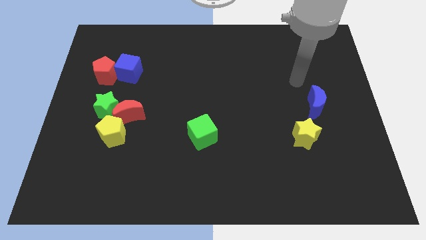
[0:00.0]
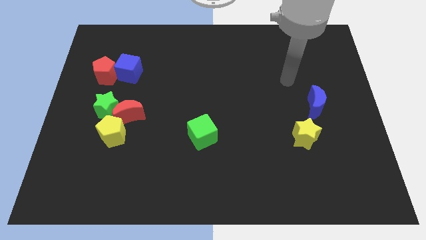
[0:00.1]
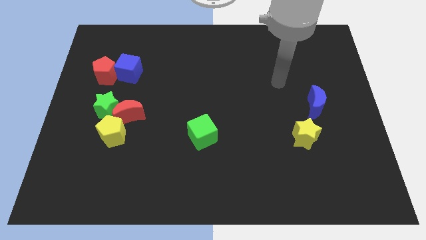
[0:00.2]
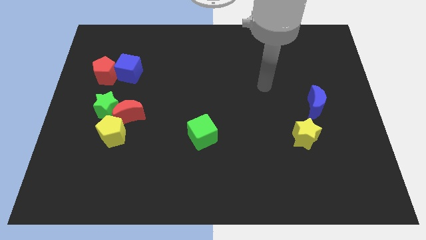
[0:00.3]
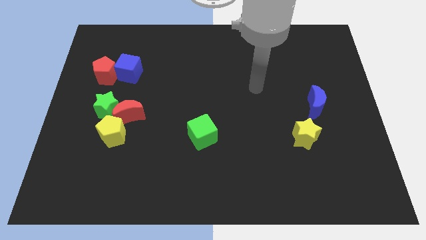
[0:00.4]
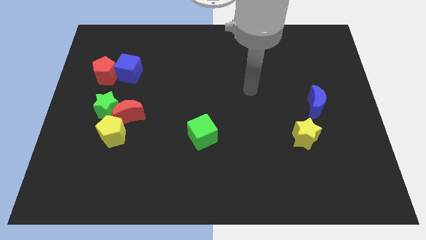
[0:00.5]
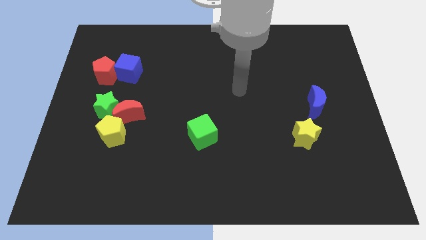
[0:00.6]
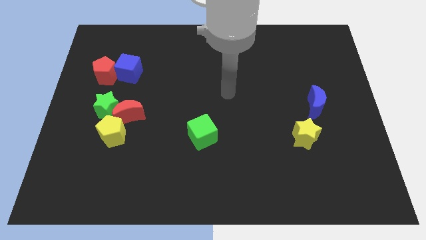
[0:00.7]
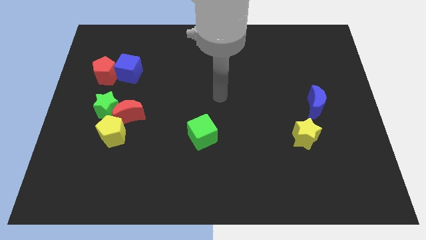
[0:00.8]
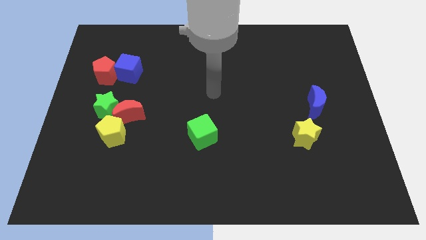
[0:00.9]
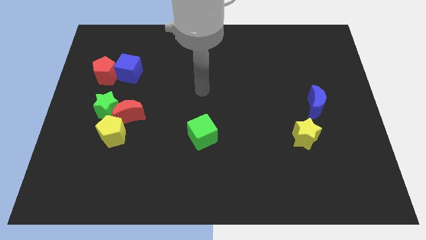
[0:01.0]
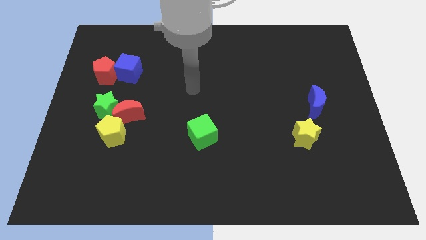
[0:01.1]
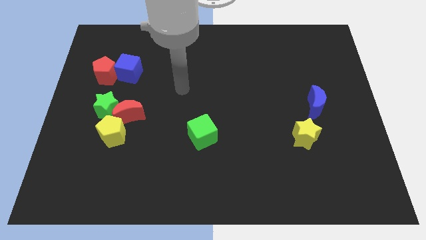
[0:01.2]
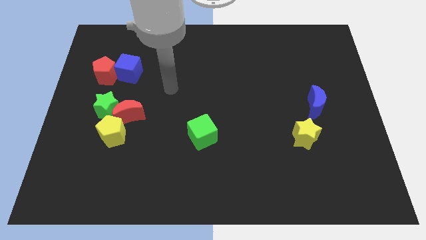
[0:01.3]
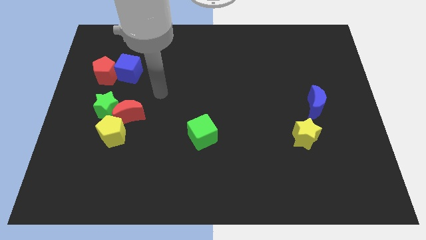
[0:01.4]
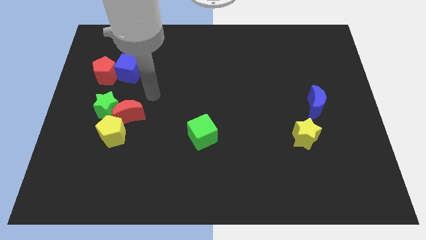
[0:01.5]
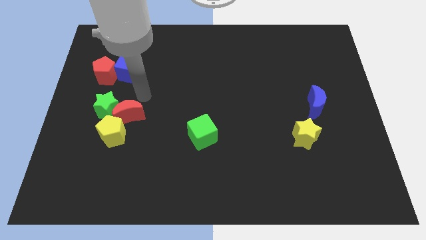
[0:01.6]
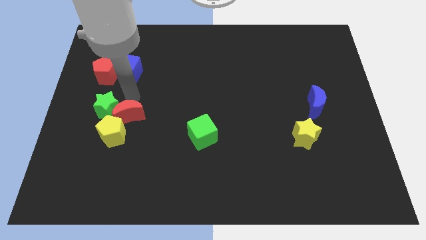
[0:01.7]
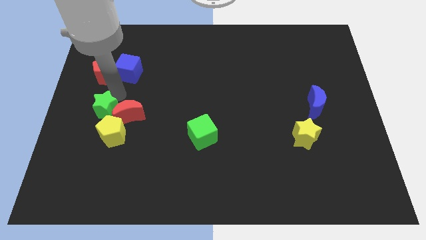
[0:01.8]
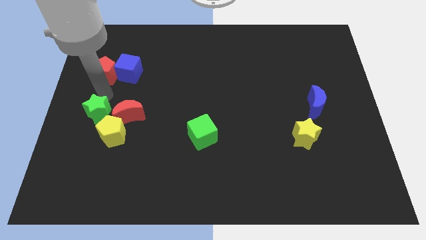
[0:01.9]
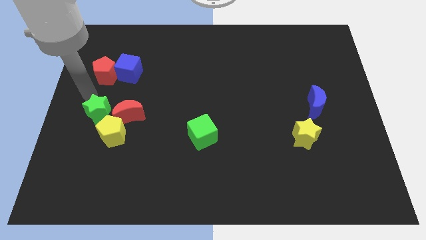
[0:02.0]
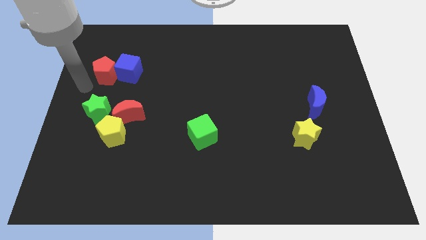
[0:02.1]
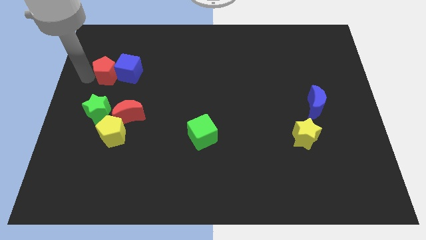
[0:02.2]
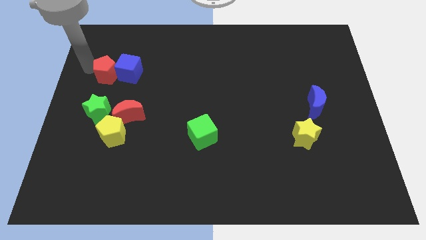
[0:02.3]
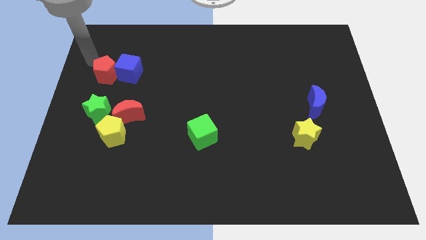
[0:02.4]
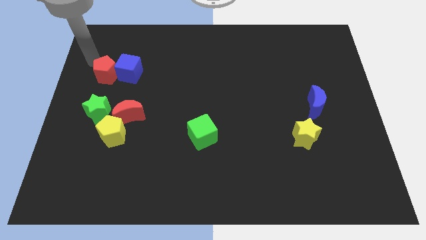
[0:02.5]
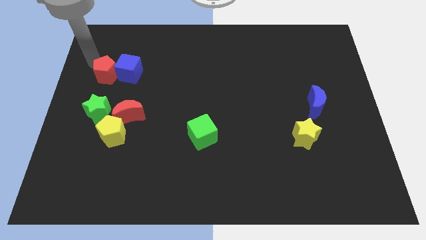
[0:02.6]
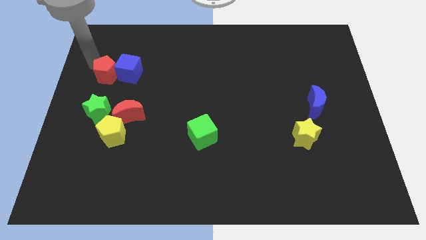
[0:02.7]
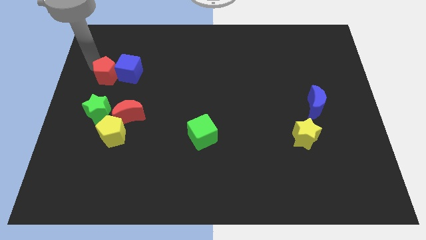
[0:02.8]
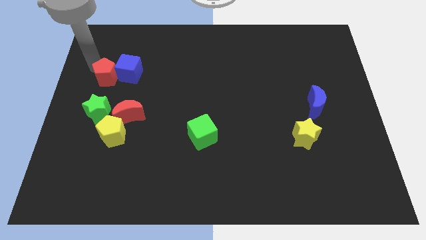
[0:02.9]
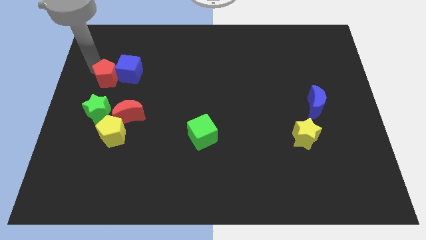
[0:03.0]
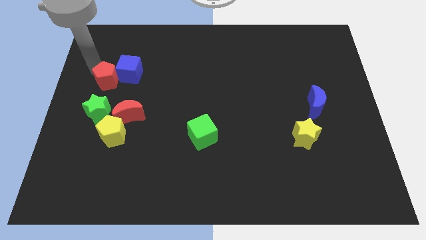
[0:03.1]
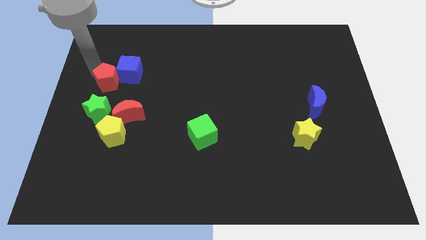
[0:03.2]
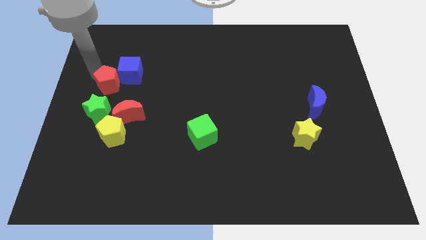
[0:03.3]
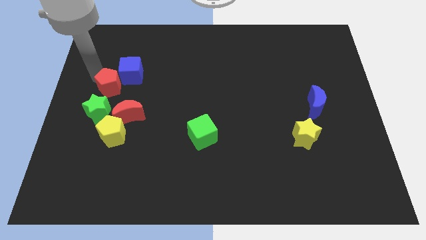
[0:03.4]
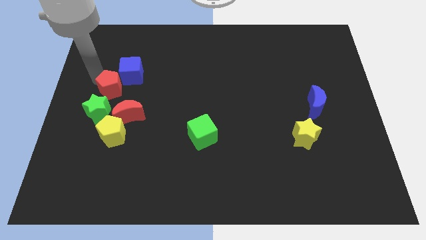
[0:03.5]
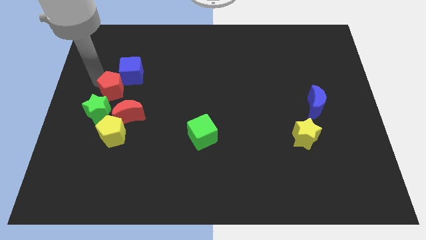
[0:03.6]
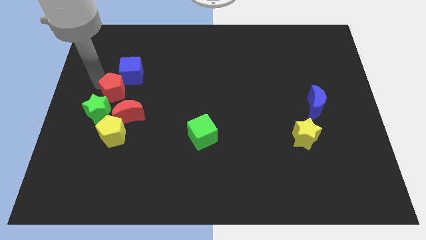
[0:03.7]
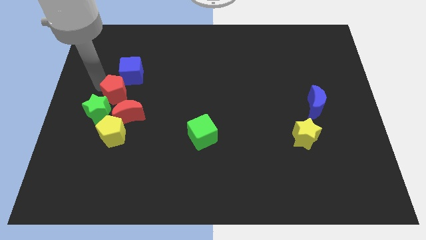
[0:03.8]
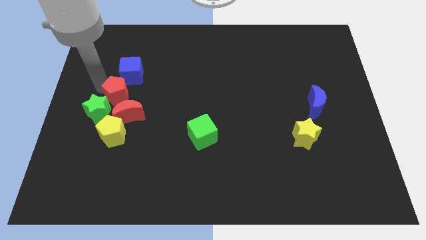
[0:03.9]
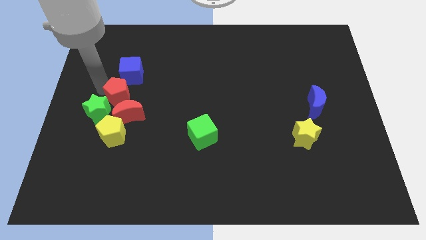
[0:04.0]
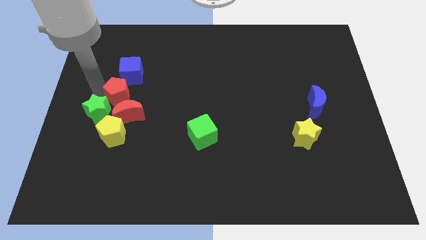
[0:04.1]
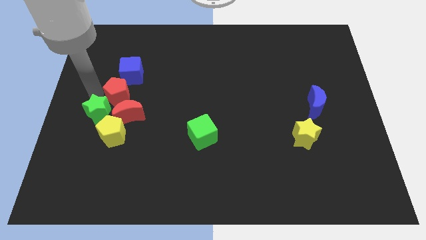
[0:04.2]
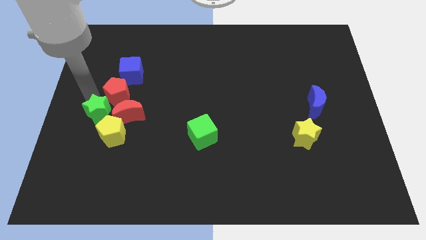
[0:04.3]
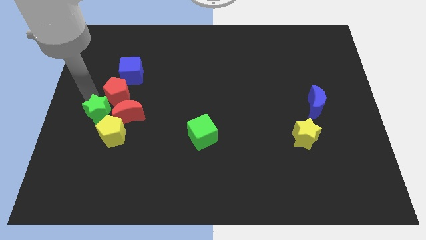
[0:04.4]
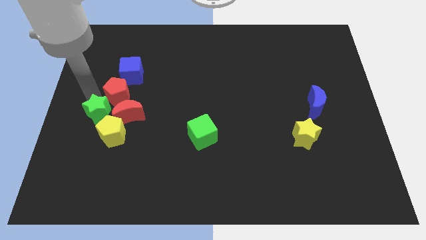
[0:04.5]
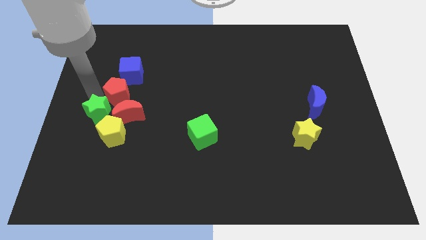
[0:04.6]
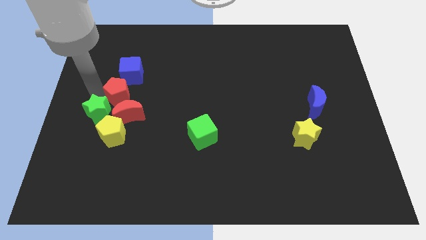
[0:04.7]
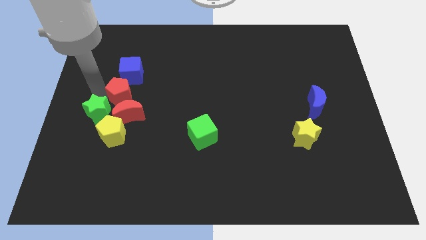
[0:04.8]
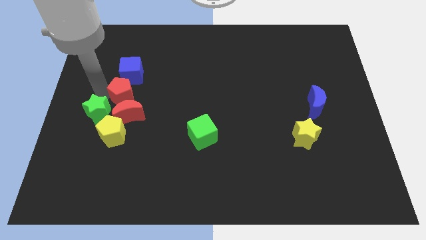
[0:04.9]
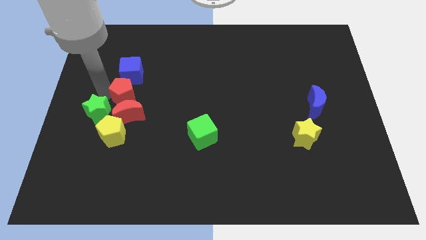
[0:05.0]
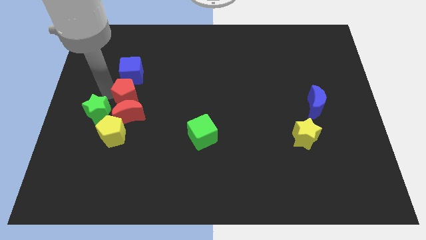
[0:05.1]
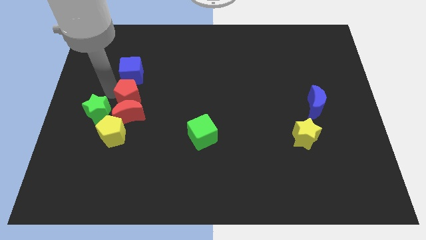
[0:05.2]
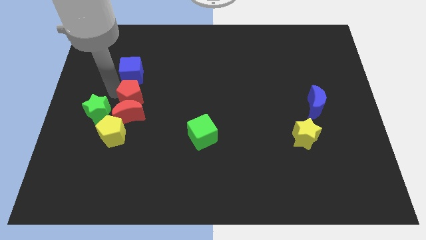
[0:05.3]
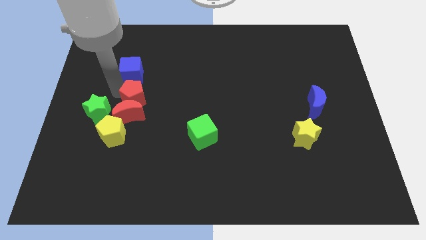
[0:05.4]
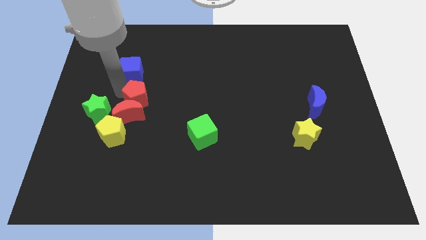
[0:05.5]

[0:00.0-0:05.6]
slide the red pentagon diagonally up and to the right of the yellow pentagon

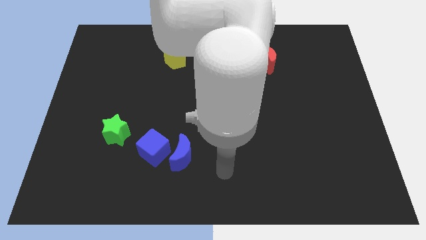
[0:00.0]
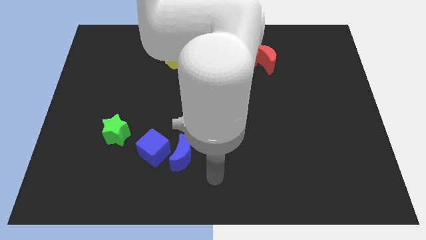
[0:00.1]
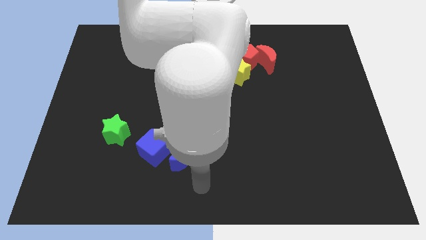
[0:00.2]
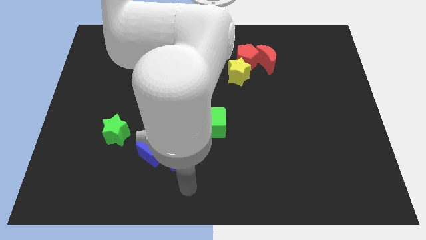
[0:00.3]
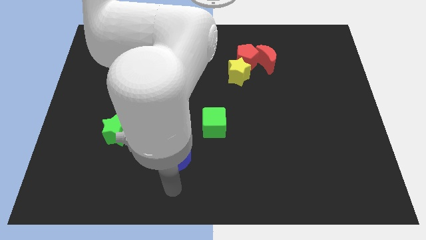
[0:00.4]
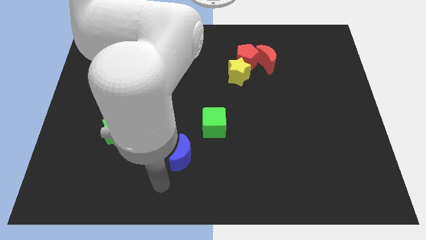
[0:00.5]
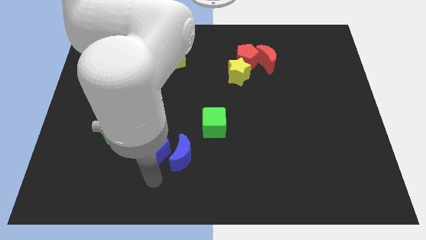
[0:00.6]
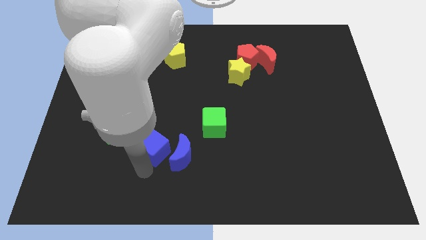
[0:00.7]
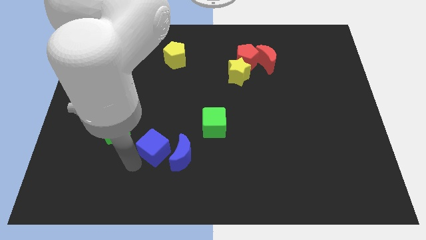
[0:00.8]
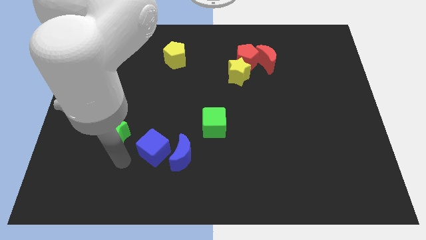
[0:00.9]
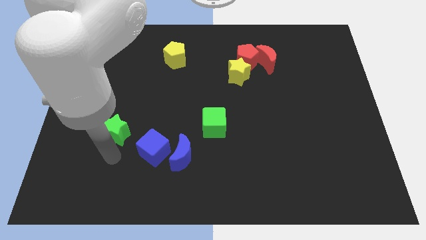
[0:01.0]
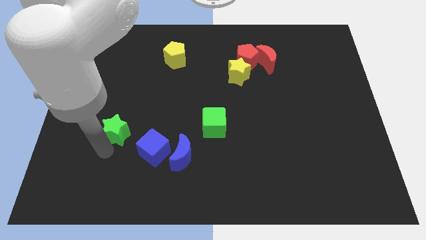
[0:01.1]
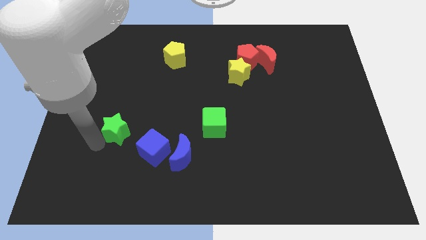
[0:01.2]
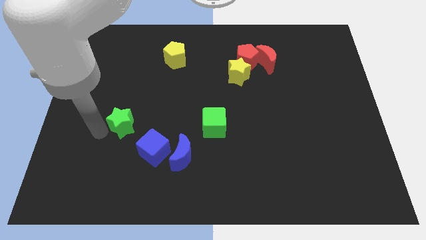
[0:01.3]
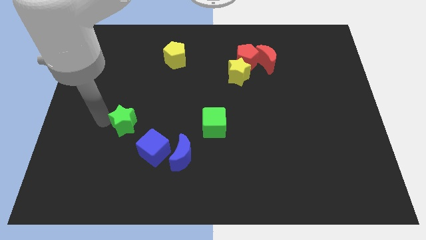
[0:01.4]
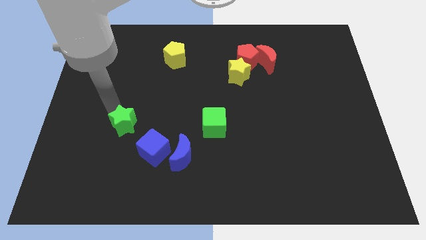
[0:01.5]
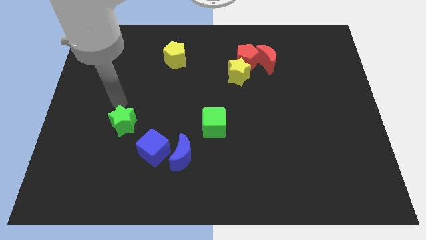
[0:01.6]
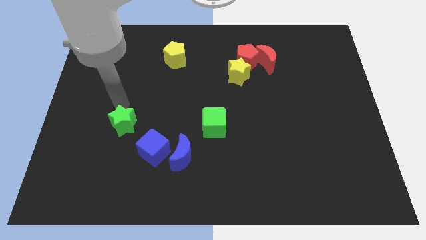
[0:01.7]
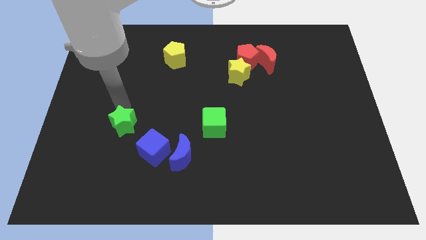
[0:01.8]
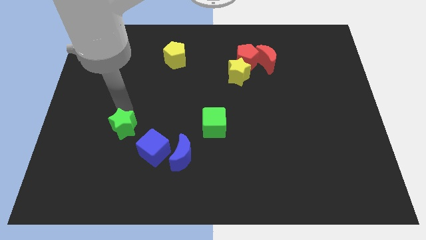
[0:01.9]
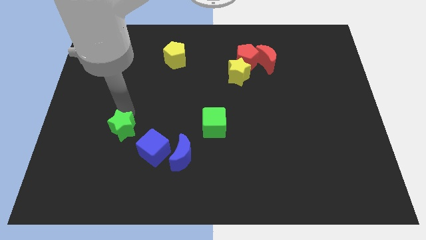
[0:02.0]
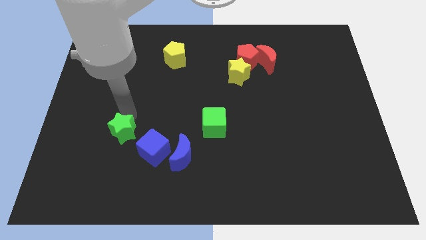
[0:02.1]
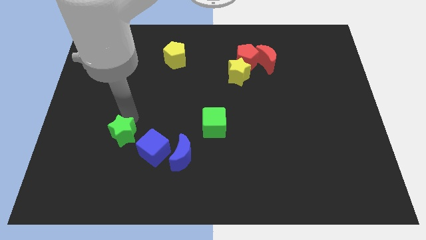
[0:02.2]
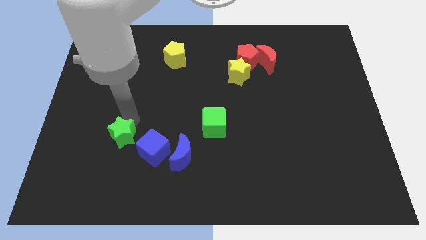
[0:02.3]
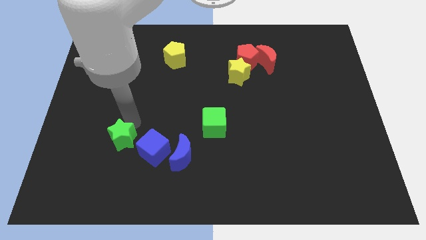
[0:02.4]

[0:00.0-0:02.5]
slide the green star to the left side of the blue moon
